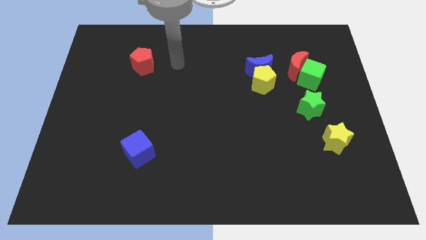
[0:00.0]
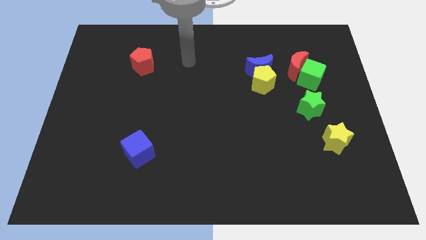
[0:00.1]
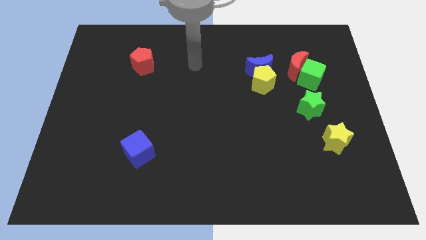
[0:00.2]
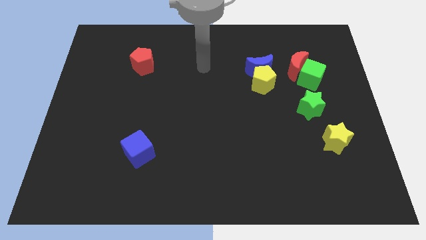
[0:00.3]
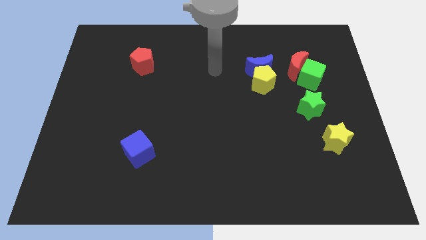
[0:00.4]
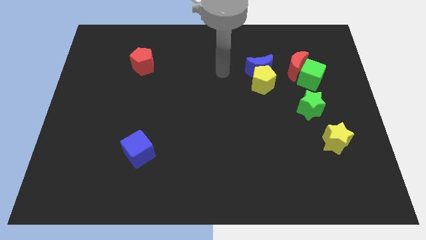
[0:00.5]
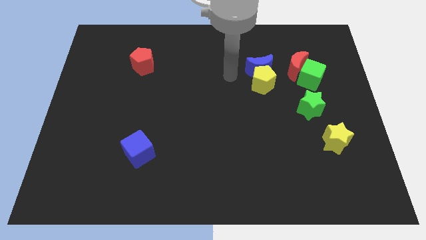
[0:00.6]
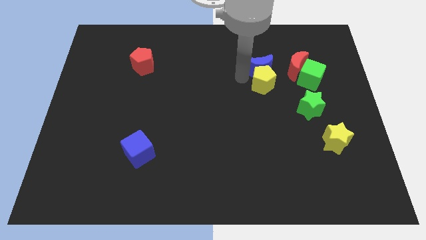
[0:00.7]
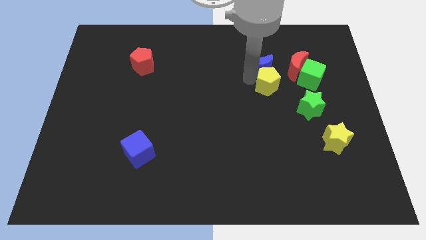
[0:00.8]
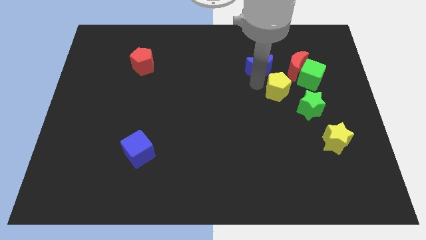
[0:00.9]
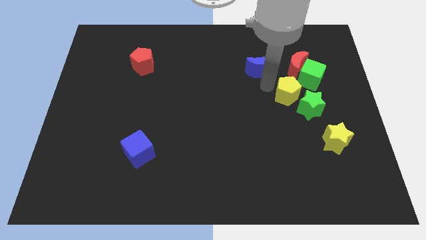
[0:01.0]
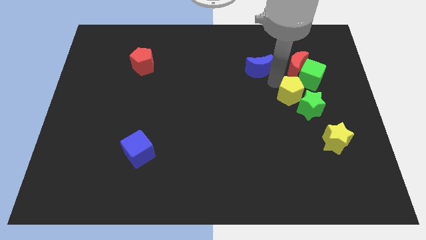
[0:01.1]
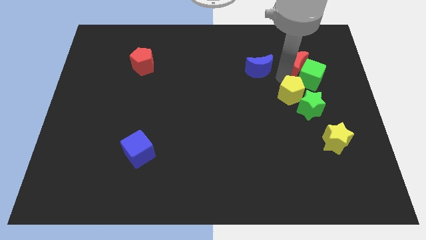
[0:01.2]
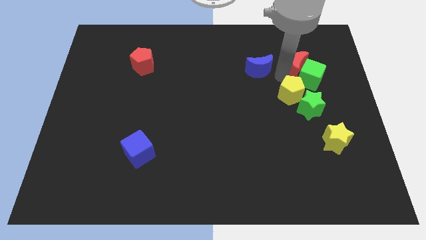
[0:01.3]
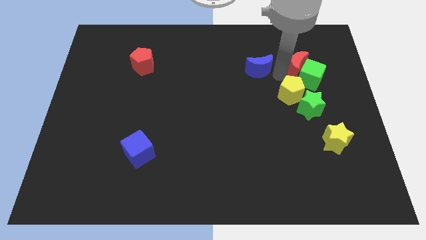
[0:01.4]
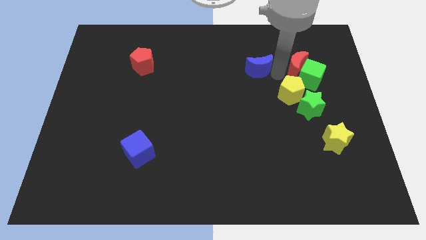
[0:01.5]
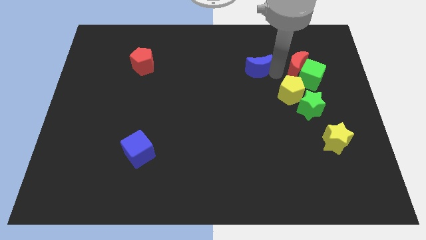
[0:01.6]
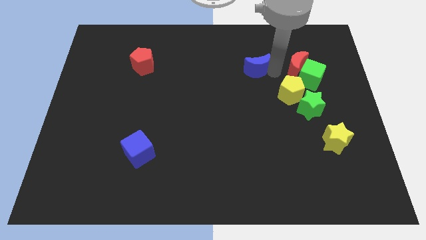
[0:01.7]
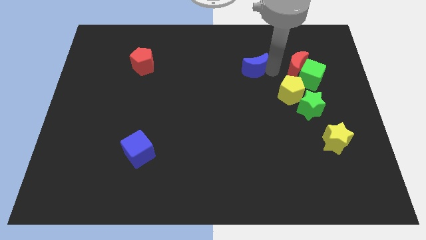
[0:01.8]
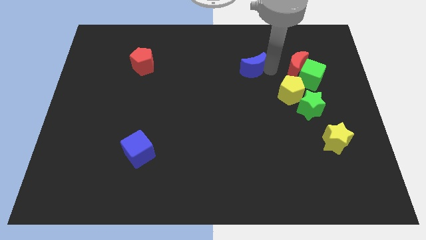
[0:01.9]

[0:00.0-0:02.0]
pull the blue moon apart from the yellow pentagon and red moon

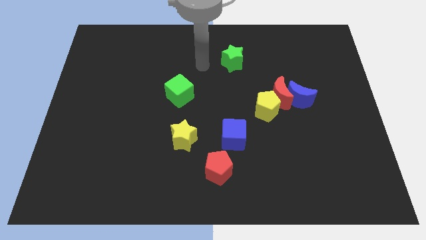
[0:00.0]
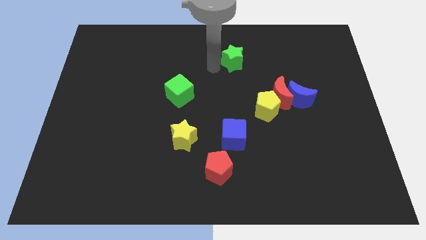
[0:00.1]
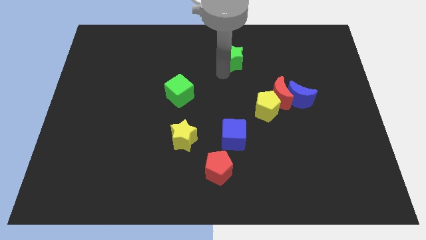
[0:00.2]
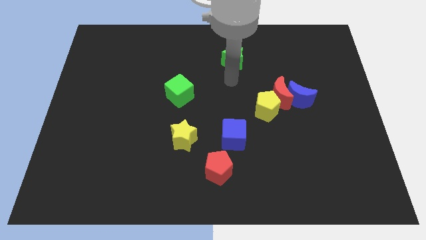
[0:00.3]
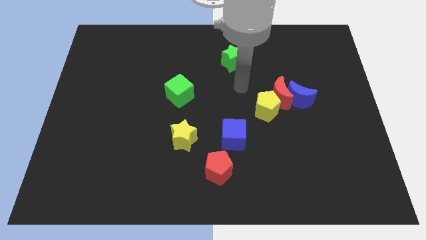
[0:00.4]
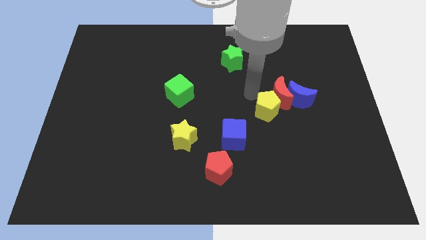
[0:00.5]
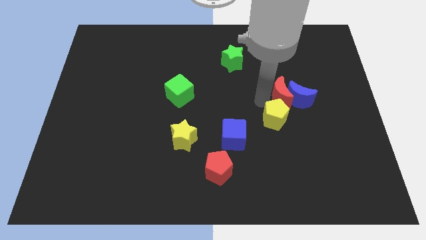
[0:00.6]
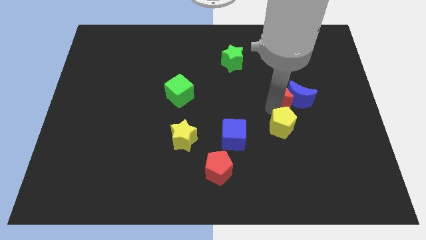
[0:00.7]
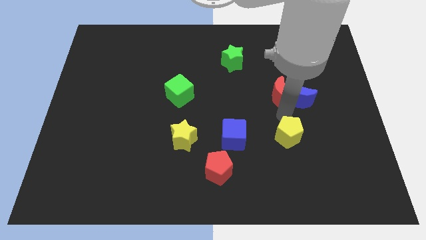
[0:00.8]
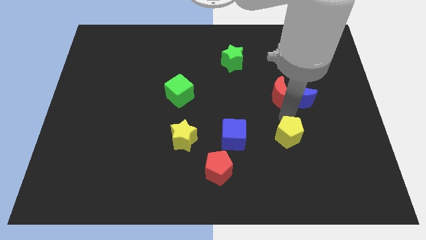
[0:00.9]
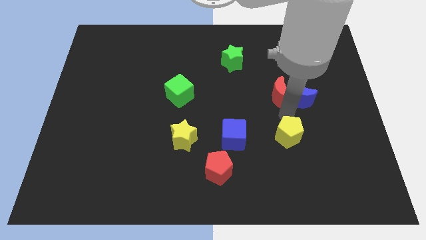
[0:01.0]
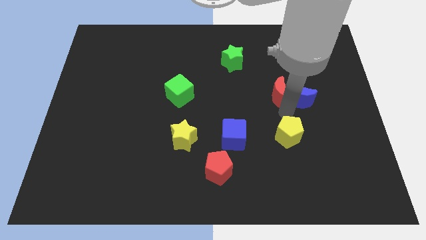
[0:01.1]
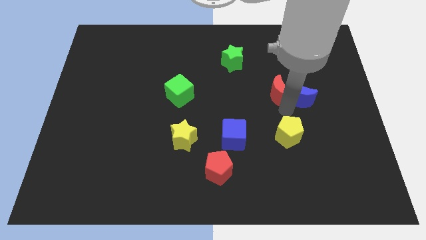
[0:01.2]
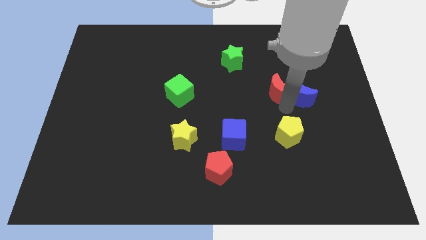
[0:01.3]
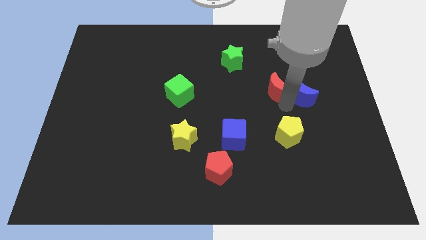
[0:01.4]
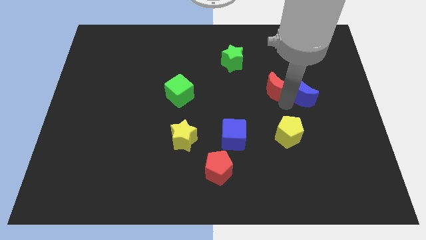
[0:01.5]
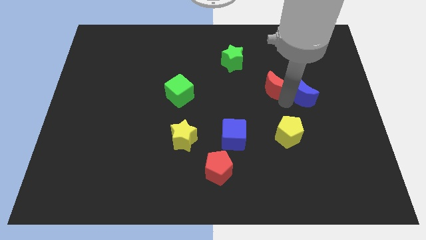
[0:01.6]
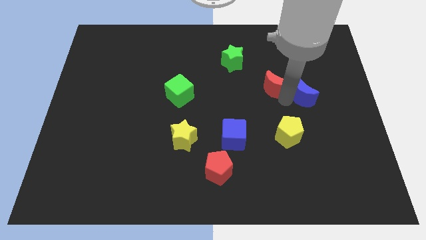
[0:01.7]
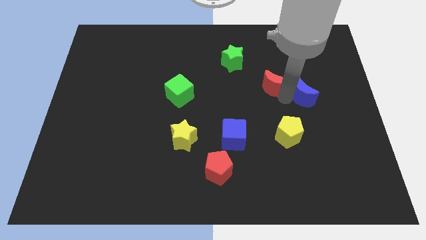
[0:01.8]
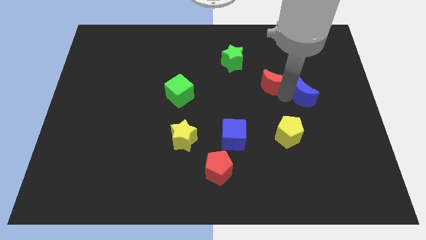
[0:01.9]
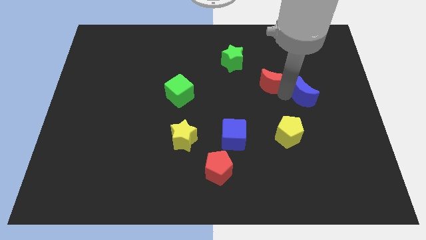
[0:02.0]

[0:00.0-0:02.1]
pull the red moon apart from the blue moon and yellow pentagon

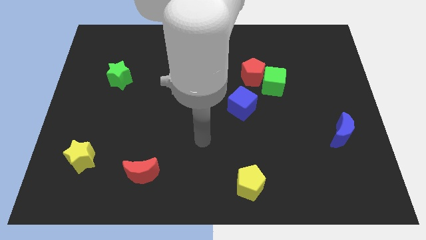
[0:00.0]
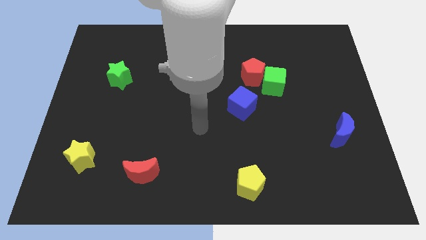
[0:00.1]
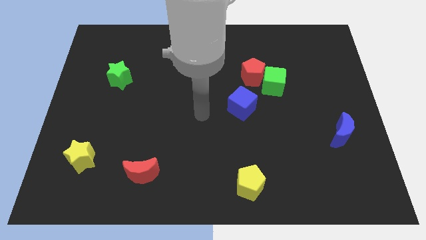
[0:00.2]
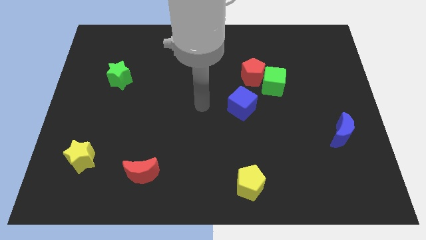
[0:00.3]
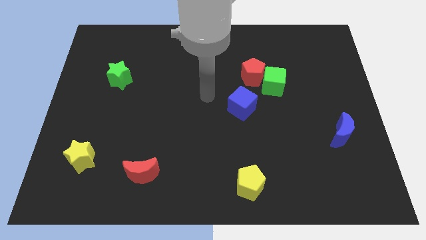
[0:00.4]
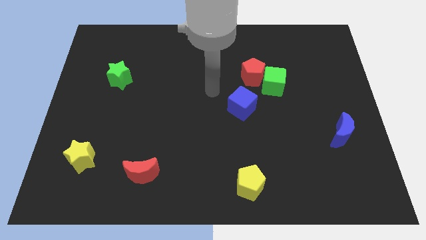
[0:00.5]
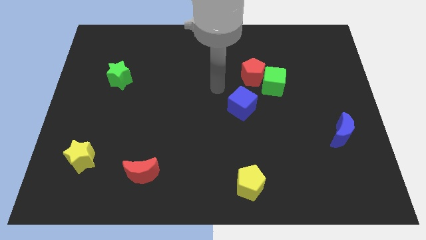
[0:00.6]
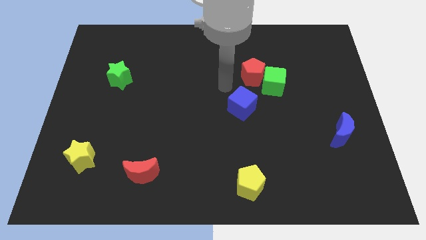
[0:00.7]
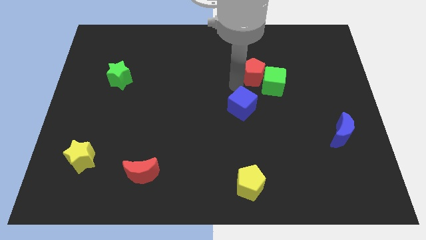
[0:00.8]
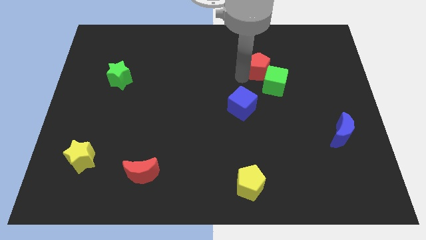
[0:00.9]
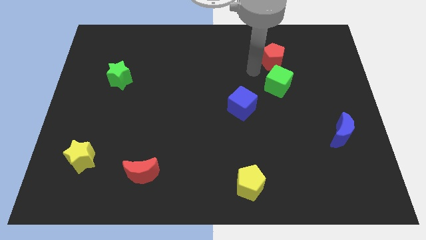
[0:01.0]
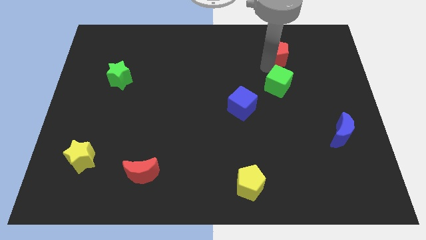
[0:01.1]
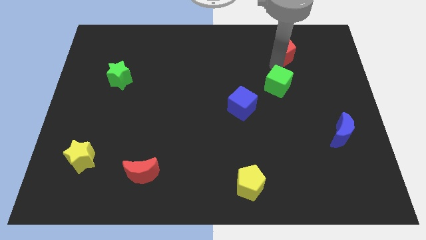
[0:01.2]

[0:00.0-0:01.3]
separate the green cube from the red pentagon

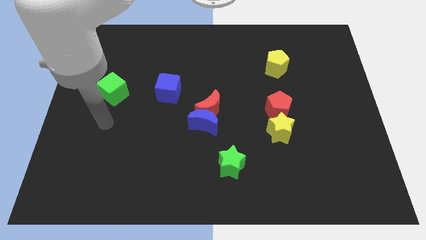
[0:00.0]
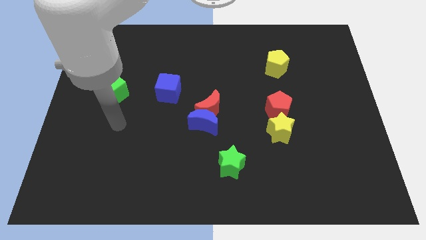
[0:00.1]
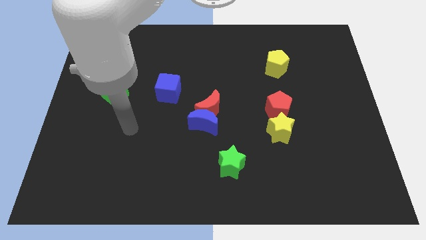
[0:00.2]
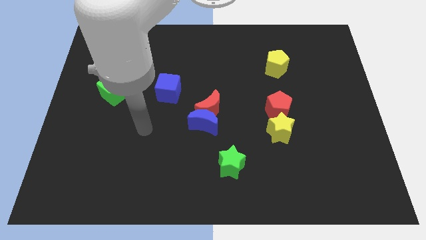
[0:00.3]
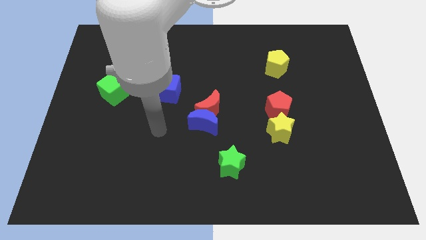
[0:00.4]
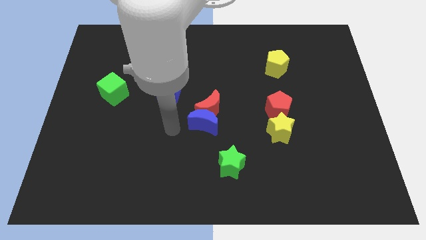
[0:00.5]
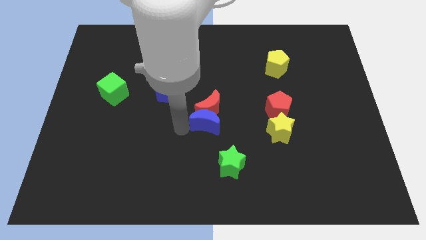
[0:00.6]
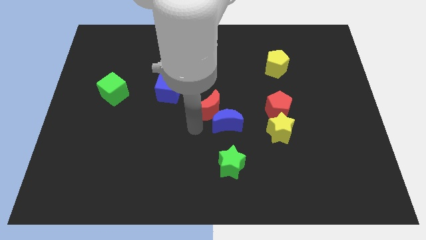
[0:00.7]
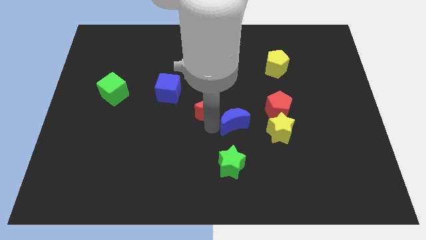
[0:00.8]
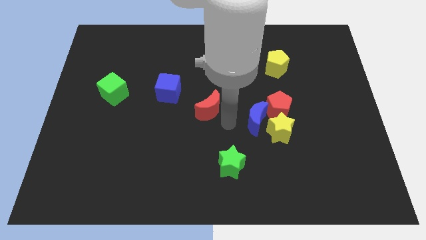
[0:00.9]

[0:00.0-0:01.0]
separate the red moon from the blue moon

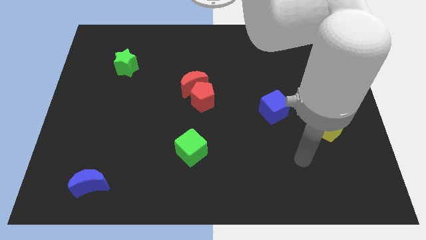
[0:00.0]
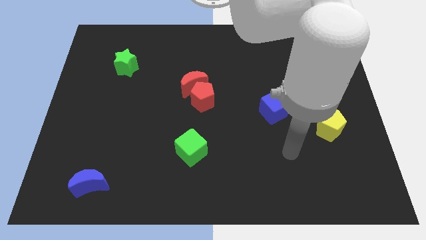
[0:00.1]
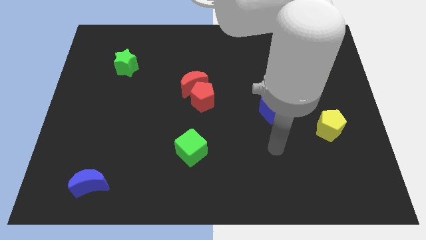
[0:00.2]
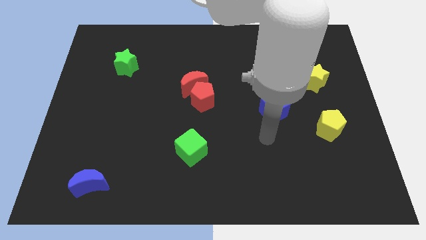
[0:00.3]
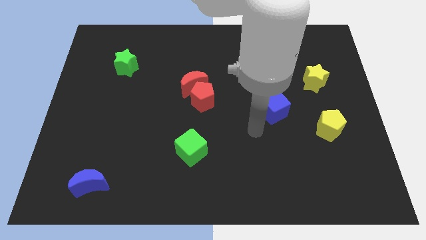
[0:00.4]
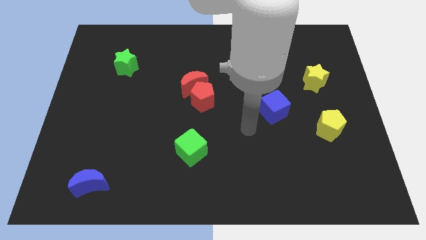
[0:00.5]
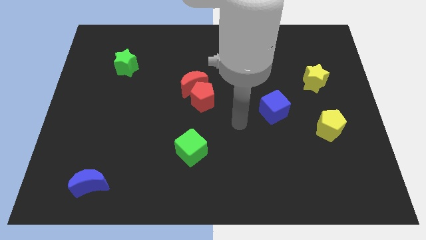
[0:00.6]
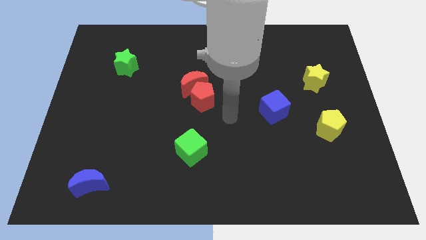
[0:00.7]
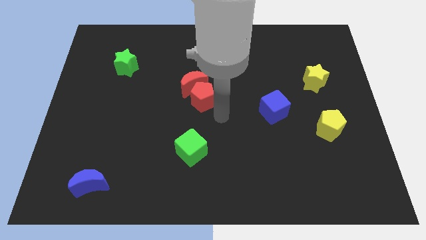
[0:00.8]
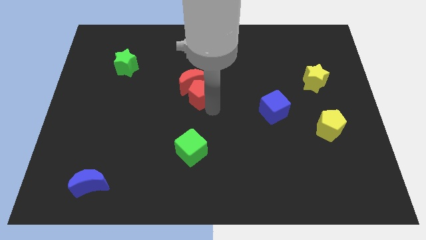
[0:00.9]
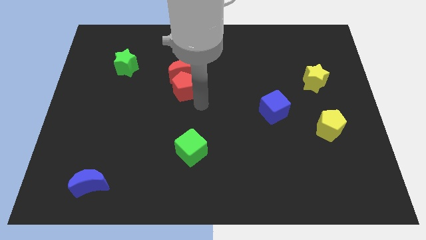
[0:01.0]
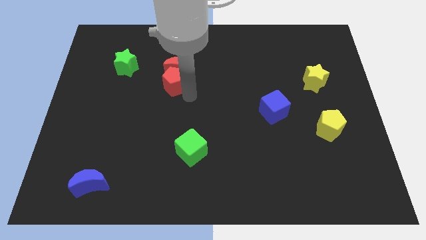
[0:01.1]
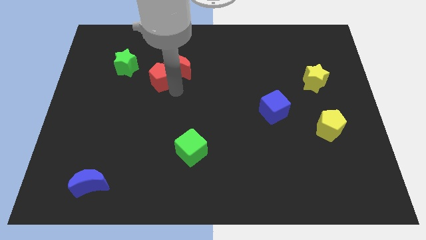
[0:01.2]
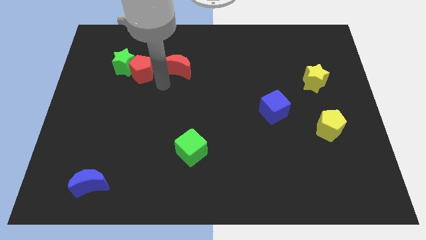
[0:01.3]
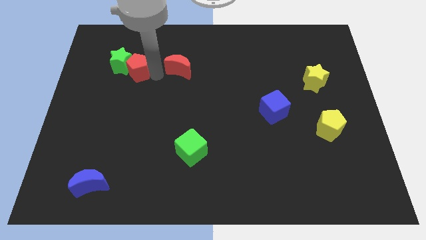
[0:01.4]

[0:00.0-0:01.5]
move the red moon away from the red pentagon

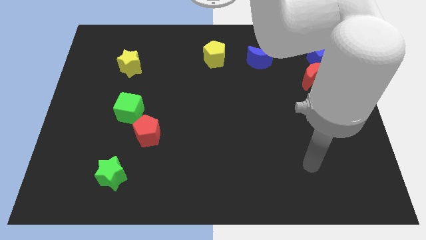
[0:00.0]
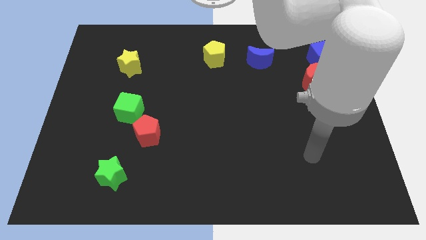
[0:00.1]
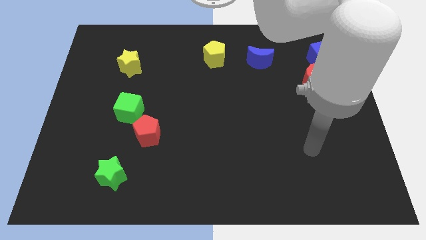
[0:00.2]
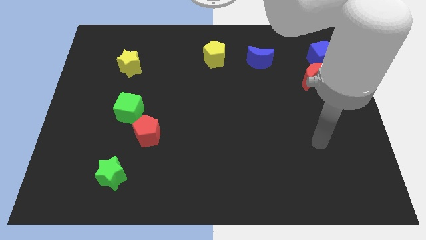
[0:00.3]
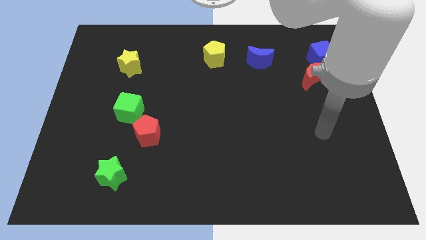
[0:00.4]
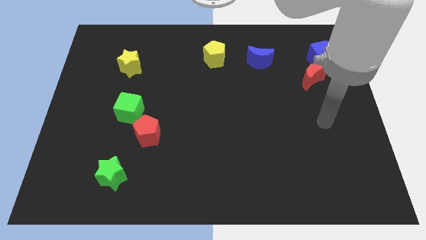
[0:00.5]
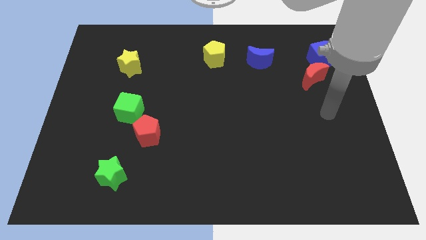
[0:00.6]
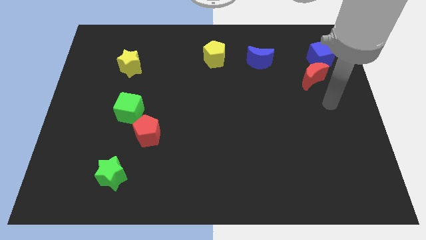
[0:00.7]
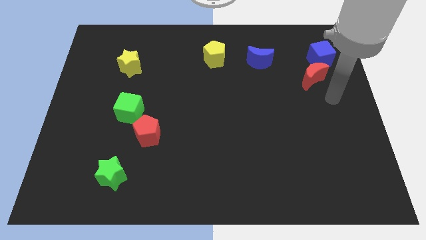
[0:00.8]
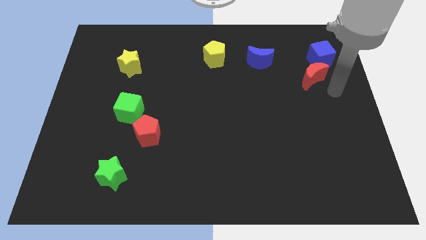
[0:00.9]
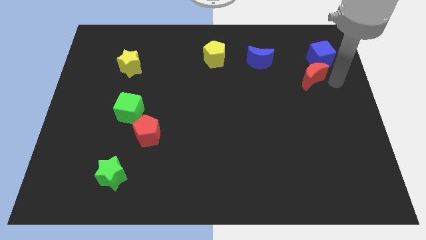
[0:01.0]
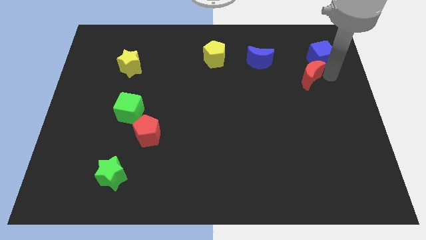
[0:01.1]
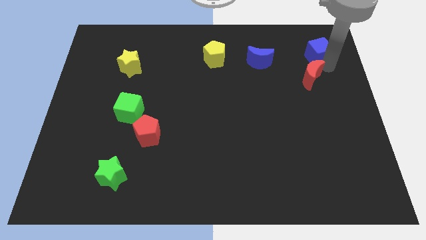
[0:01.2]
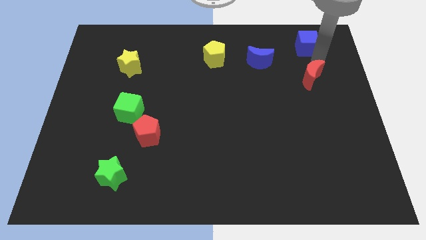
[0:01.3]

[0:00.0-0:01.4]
pull the red moon apart from the blue cube
